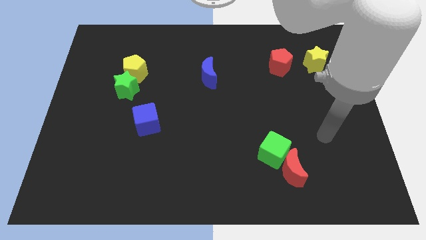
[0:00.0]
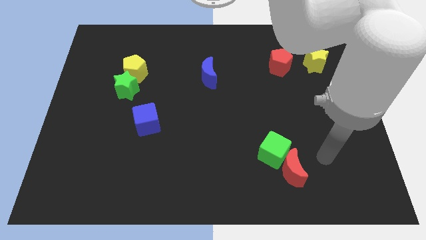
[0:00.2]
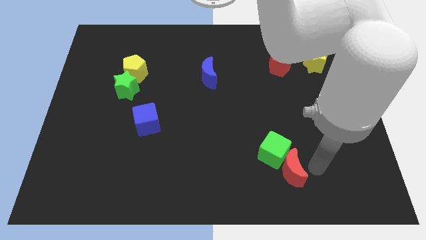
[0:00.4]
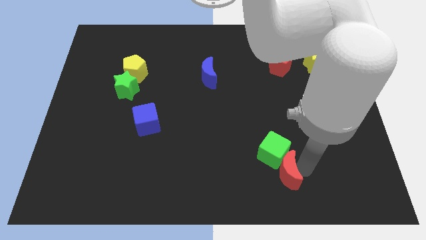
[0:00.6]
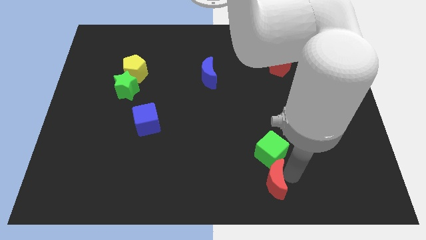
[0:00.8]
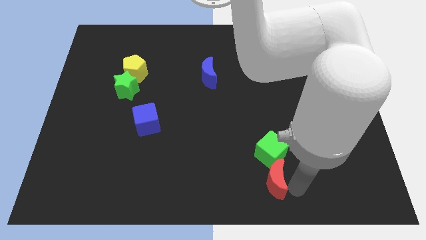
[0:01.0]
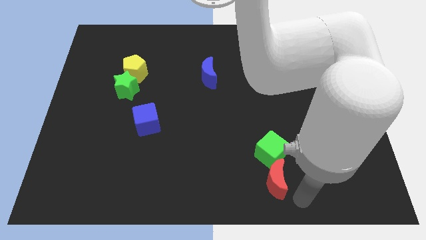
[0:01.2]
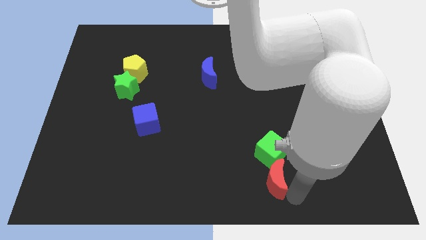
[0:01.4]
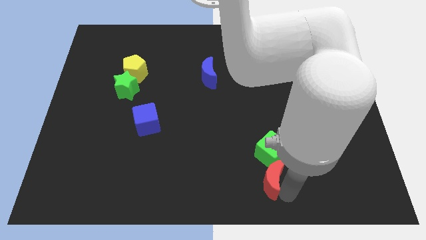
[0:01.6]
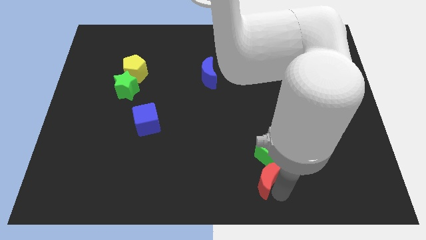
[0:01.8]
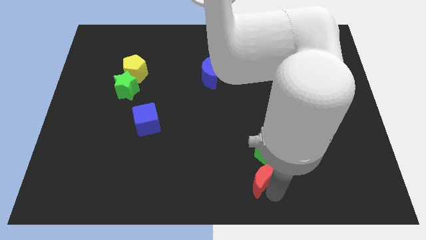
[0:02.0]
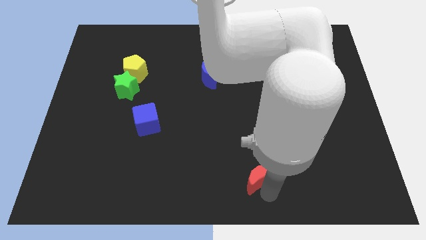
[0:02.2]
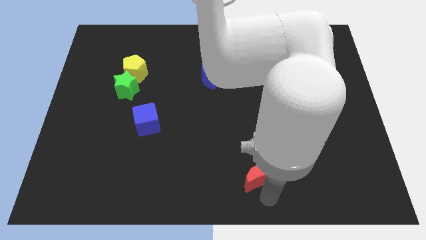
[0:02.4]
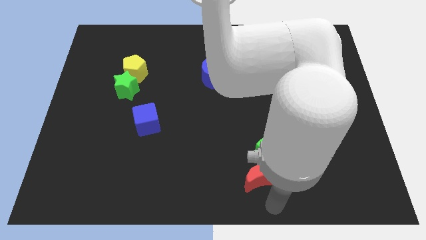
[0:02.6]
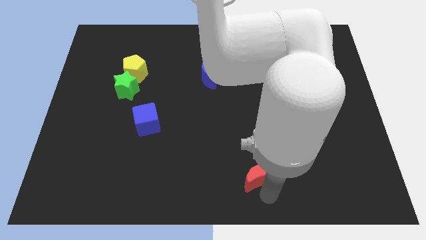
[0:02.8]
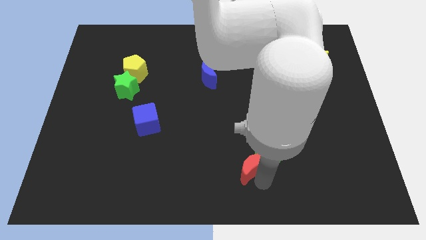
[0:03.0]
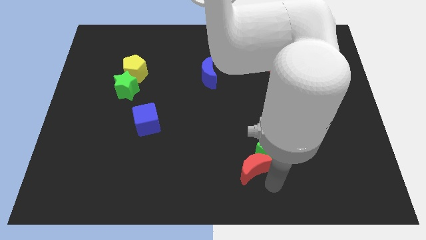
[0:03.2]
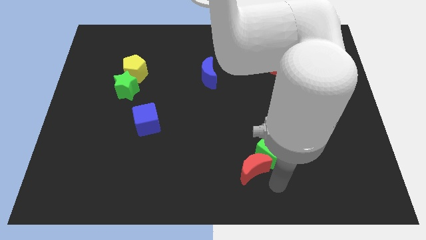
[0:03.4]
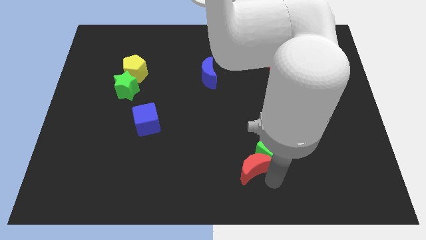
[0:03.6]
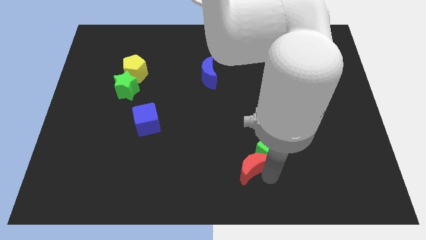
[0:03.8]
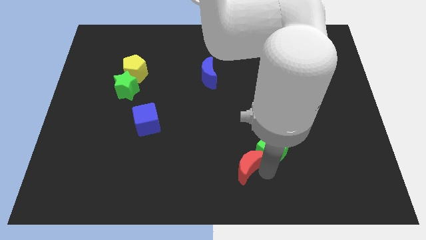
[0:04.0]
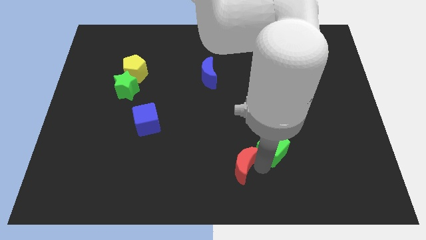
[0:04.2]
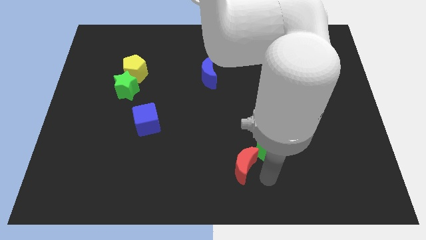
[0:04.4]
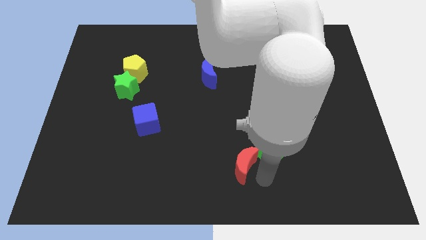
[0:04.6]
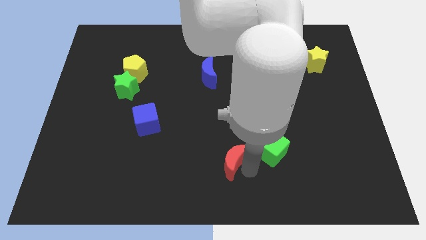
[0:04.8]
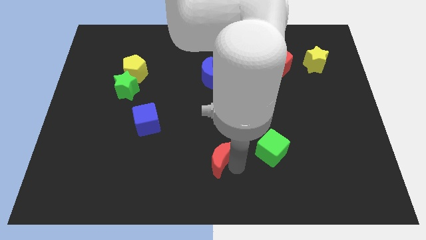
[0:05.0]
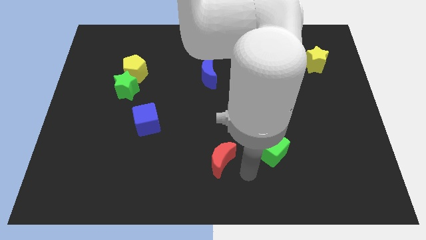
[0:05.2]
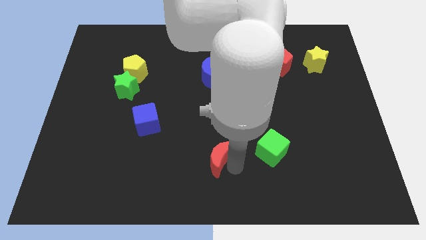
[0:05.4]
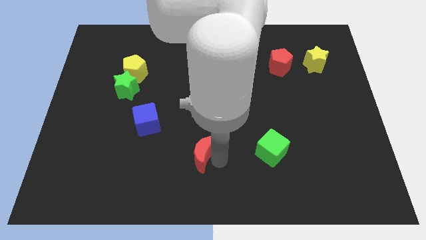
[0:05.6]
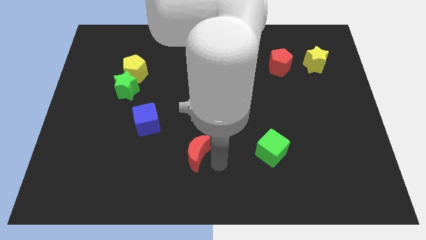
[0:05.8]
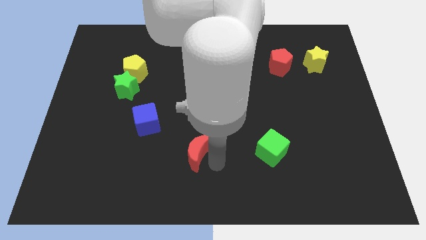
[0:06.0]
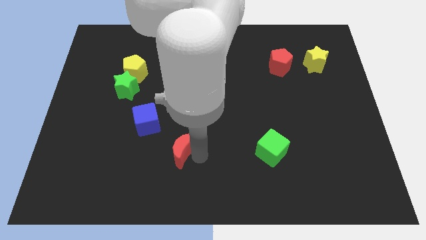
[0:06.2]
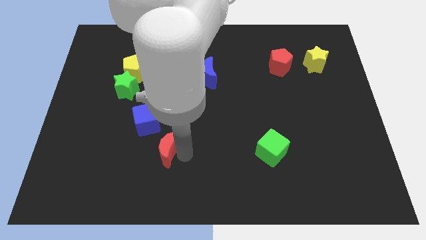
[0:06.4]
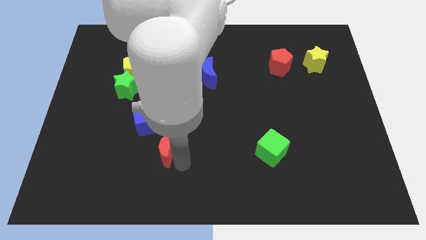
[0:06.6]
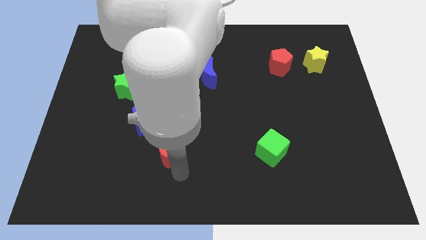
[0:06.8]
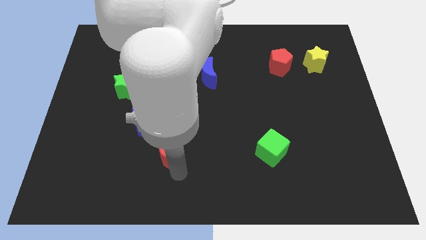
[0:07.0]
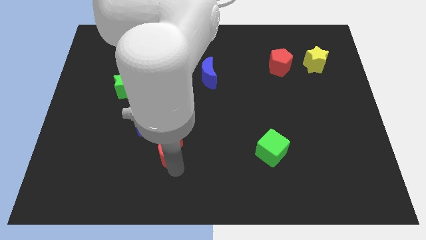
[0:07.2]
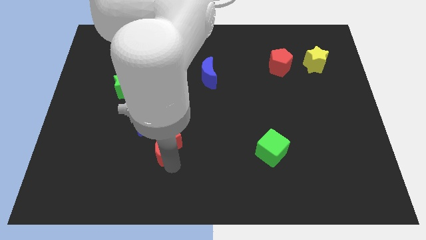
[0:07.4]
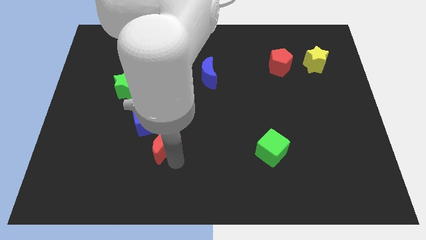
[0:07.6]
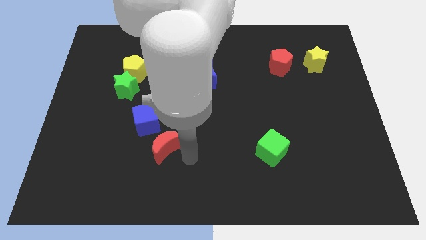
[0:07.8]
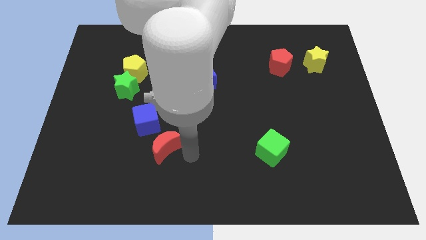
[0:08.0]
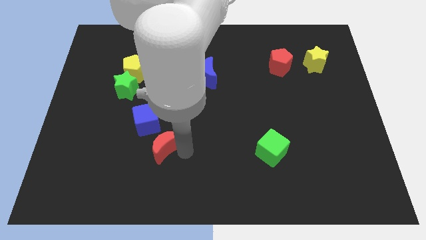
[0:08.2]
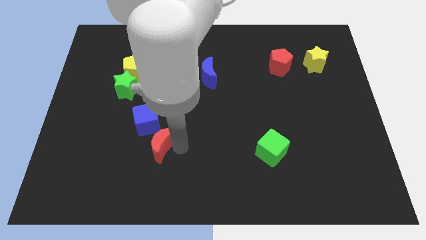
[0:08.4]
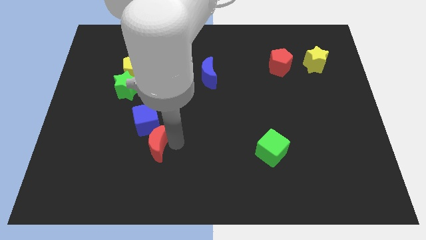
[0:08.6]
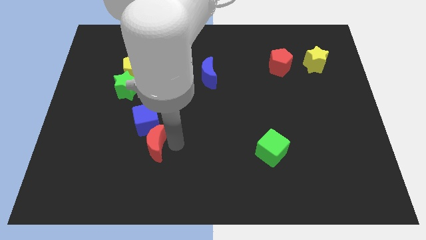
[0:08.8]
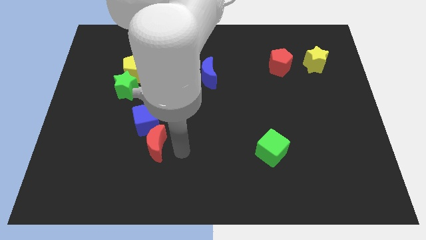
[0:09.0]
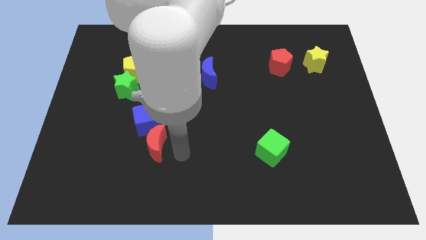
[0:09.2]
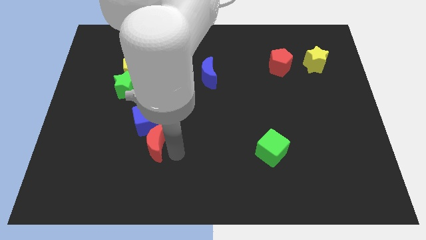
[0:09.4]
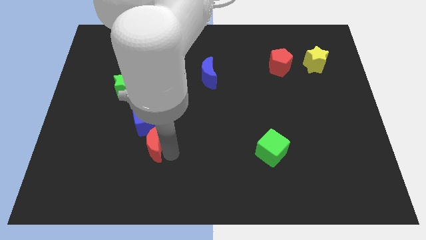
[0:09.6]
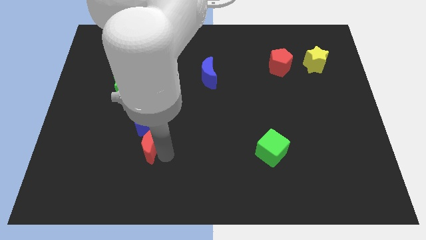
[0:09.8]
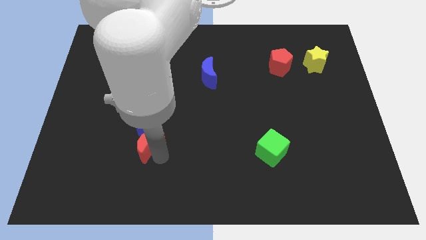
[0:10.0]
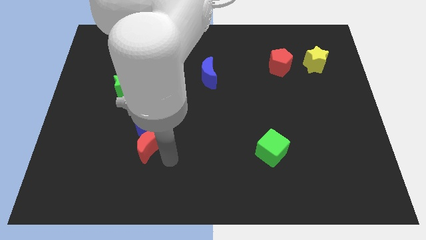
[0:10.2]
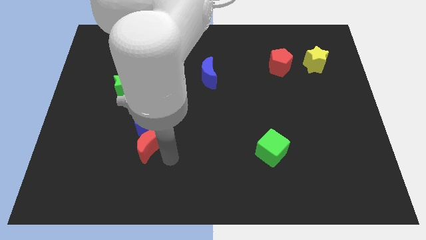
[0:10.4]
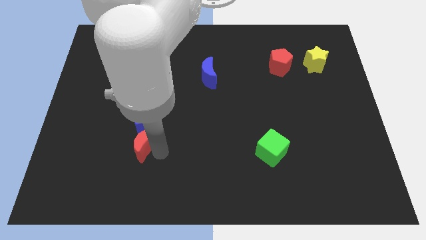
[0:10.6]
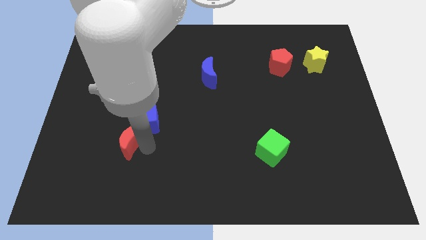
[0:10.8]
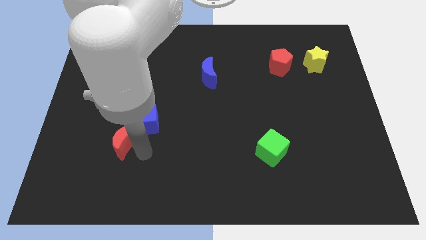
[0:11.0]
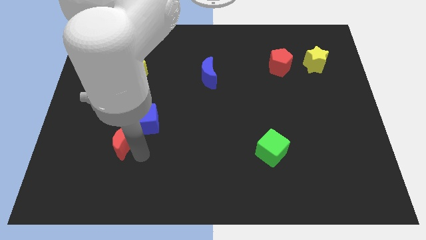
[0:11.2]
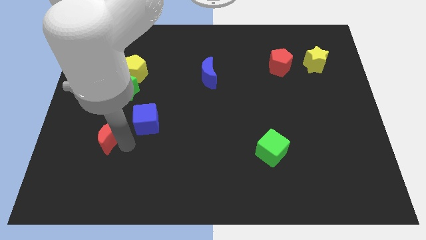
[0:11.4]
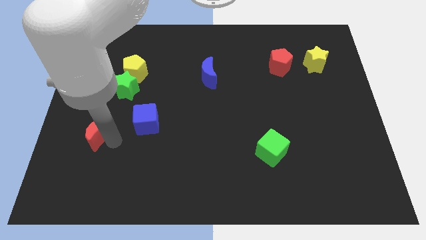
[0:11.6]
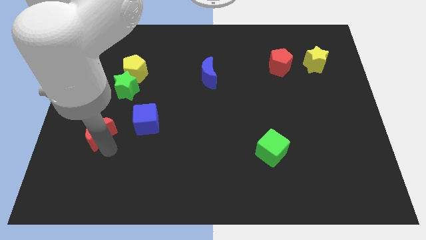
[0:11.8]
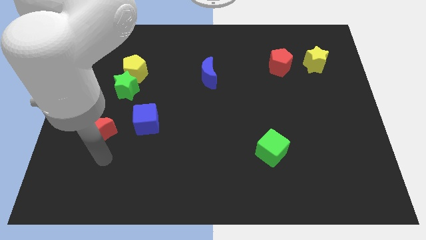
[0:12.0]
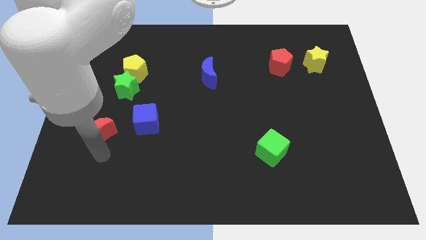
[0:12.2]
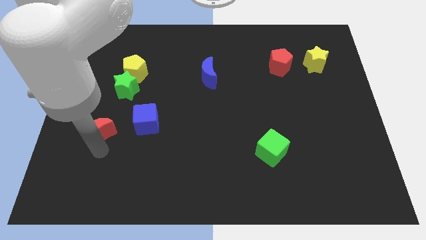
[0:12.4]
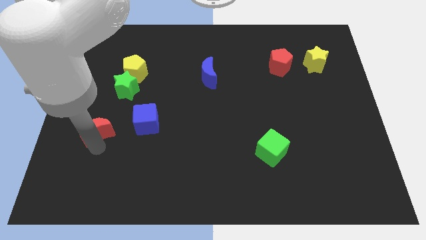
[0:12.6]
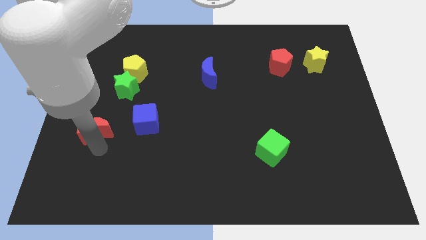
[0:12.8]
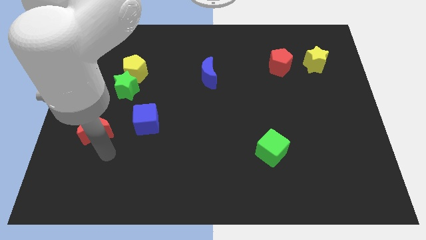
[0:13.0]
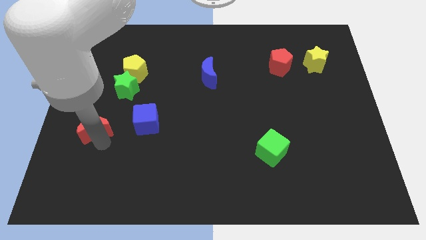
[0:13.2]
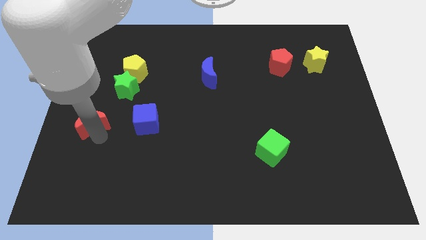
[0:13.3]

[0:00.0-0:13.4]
slide the red moon to the left side
